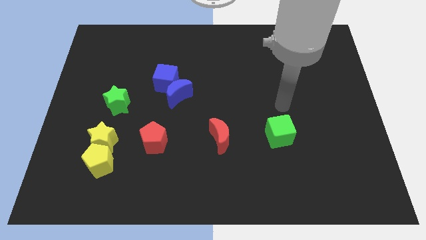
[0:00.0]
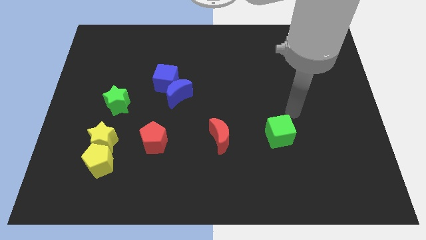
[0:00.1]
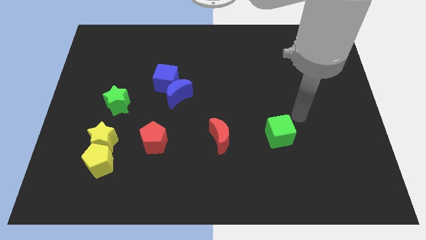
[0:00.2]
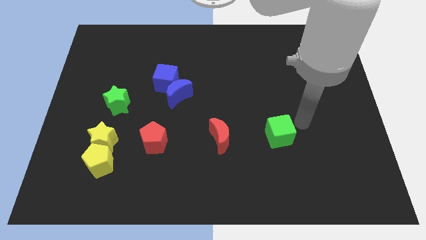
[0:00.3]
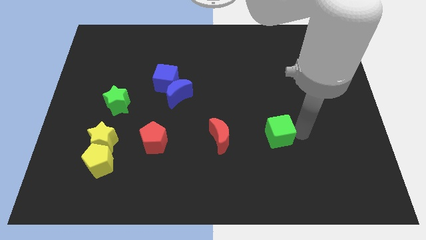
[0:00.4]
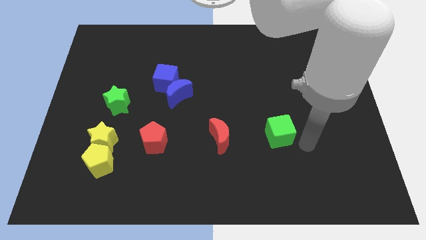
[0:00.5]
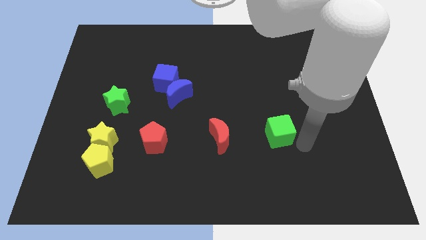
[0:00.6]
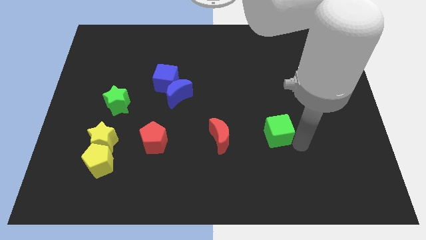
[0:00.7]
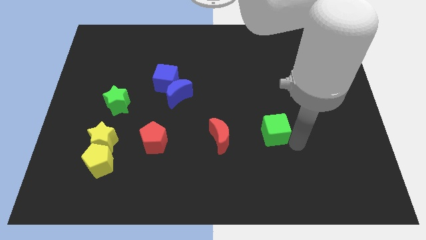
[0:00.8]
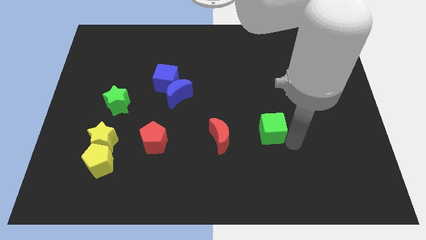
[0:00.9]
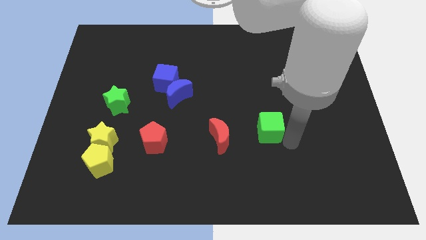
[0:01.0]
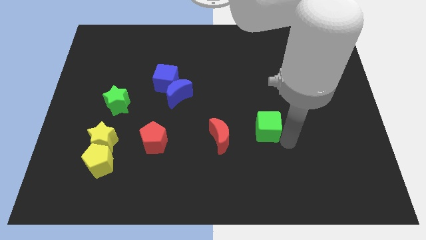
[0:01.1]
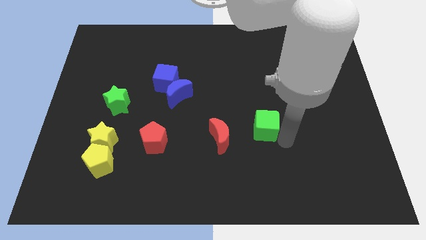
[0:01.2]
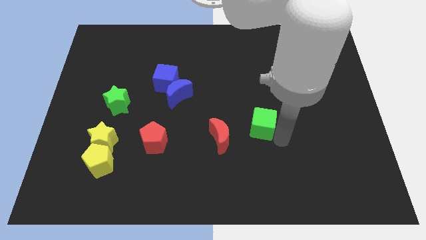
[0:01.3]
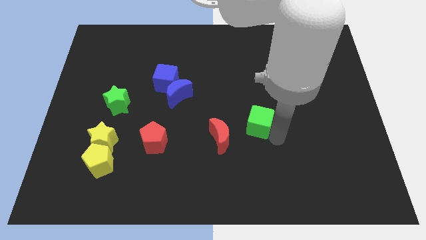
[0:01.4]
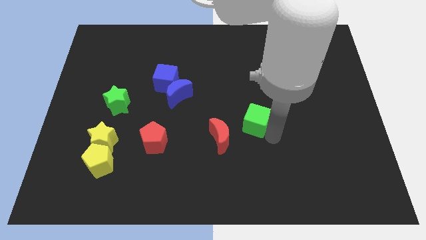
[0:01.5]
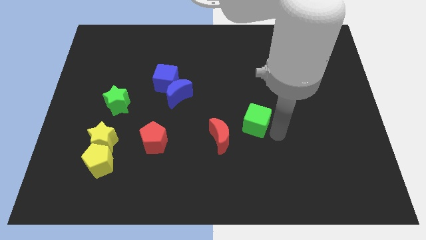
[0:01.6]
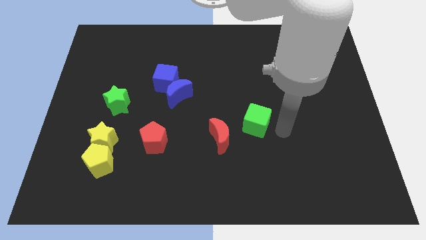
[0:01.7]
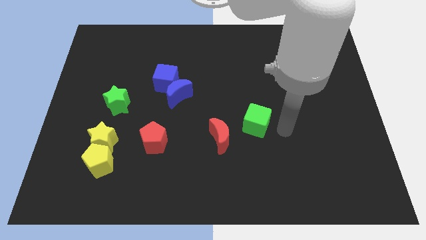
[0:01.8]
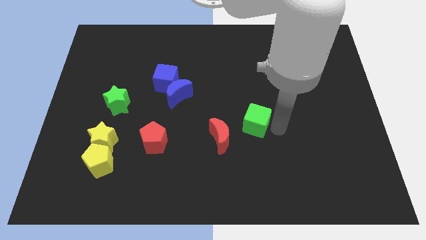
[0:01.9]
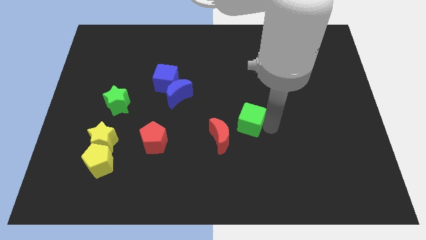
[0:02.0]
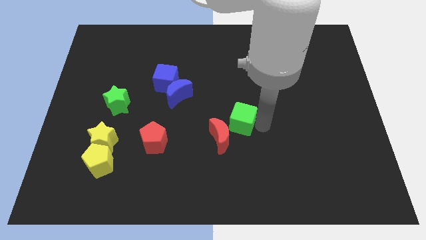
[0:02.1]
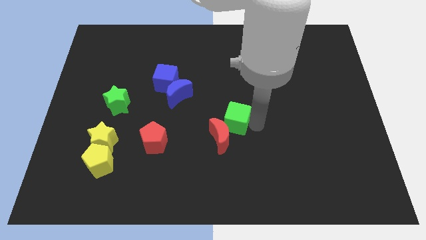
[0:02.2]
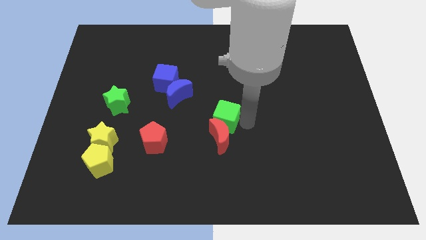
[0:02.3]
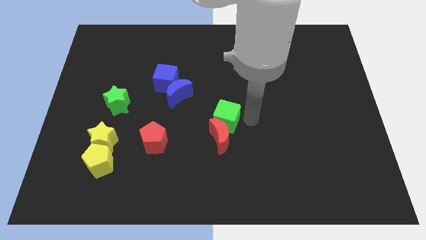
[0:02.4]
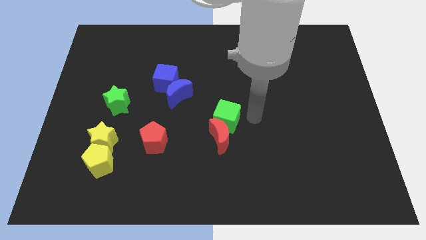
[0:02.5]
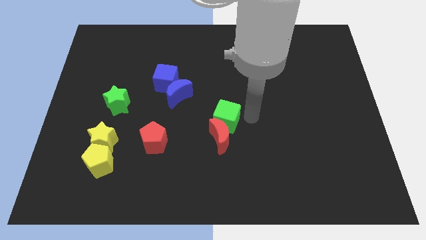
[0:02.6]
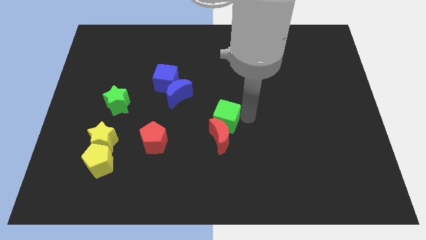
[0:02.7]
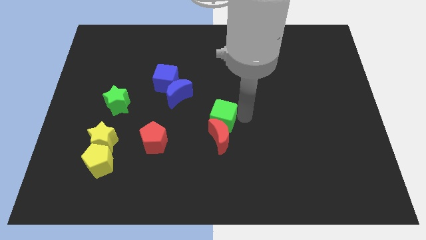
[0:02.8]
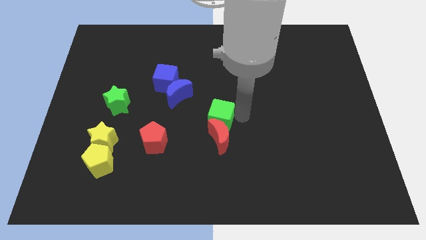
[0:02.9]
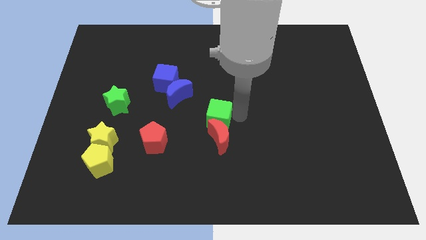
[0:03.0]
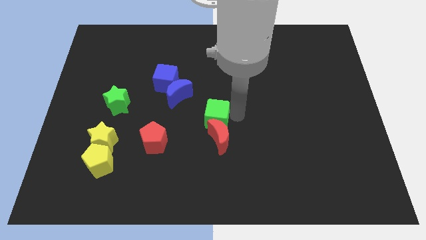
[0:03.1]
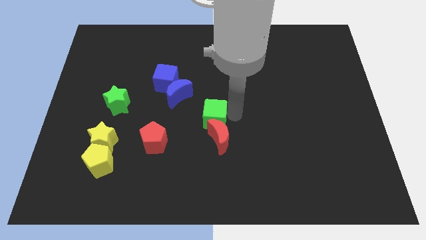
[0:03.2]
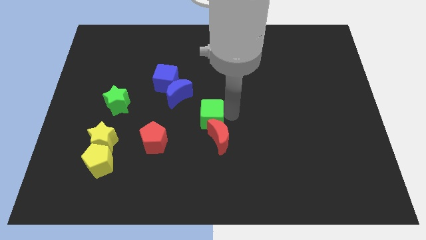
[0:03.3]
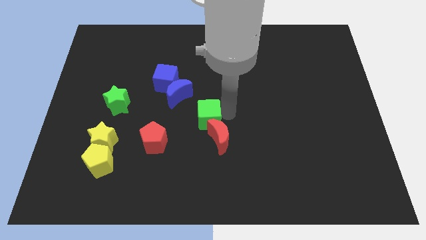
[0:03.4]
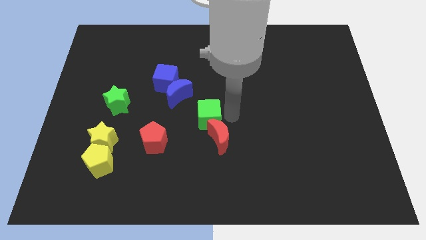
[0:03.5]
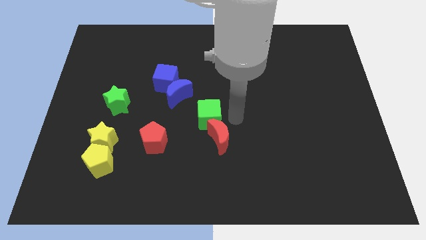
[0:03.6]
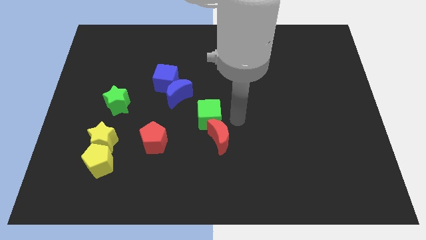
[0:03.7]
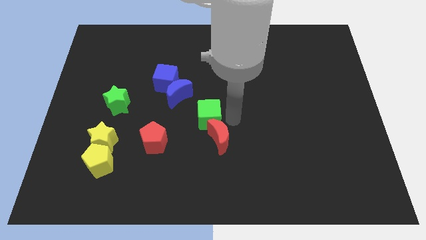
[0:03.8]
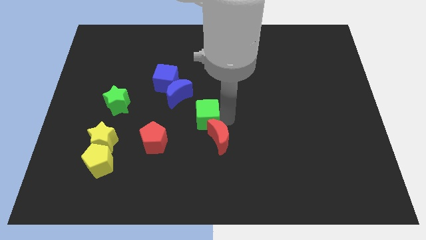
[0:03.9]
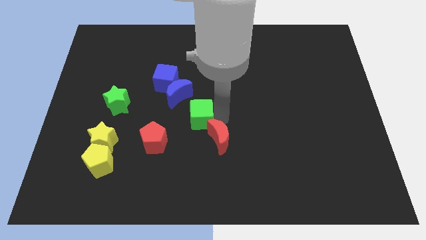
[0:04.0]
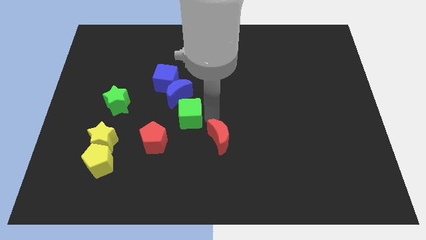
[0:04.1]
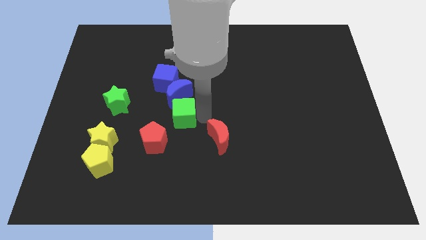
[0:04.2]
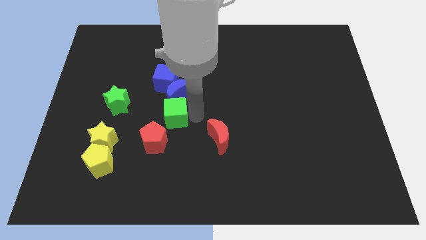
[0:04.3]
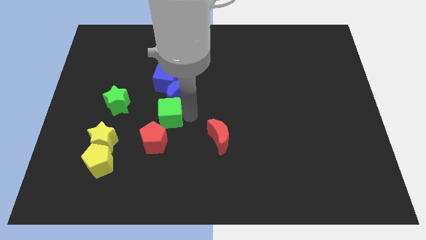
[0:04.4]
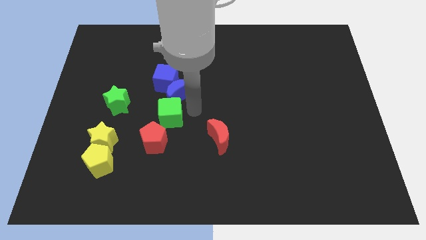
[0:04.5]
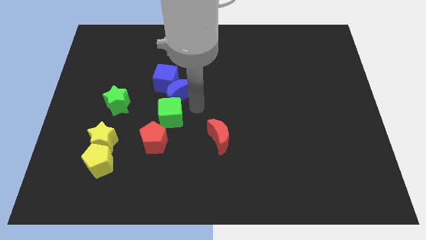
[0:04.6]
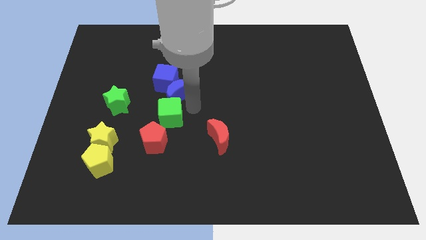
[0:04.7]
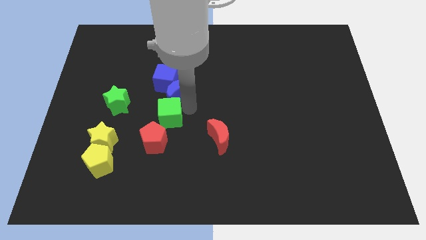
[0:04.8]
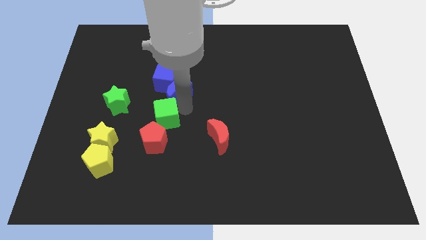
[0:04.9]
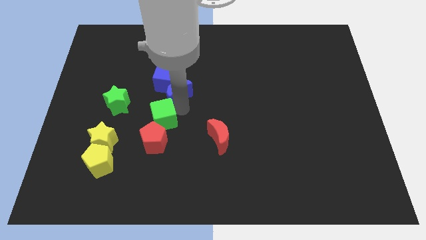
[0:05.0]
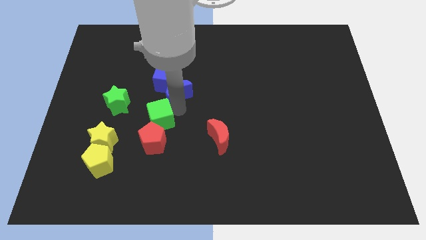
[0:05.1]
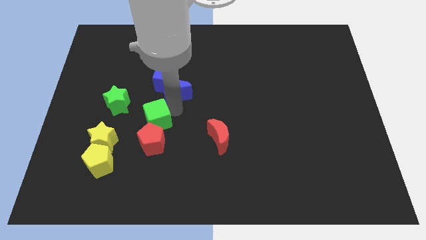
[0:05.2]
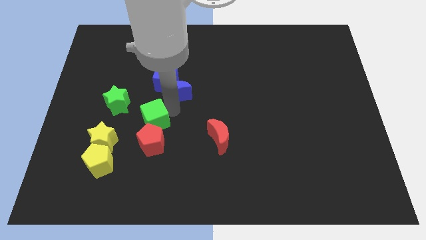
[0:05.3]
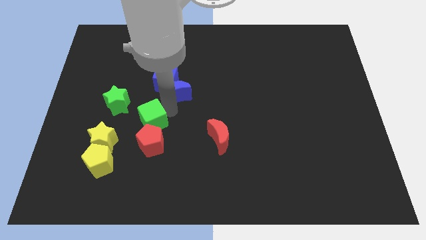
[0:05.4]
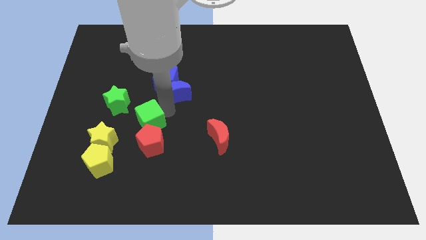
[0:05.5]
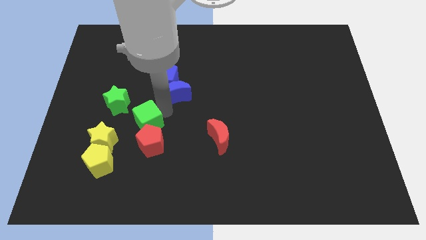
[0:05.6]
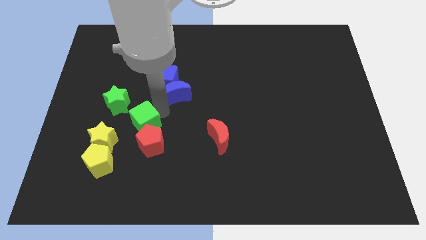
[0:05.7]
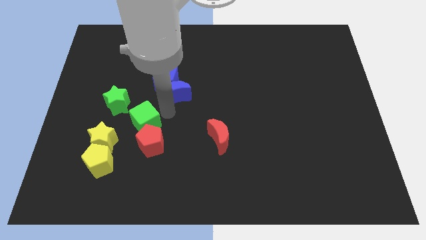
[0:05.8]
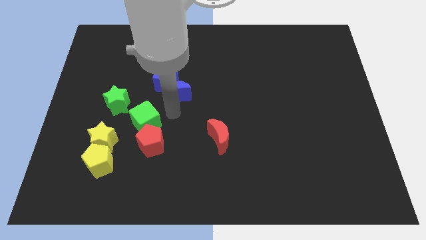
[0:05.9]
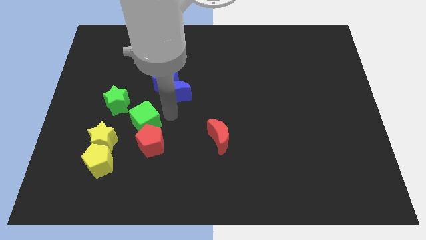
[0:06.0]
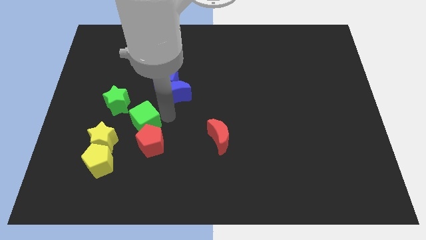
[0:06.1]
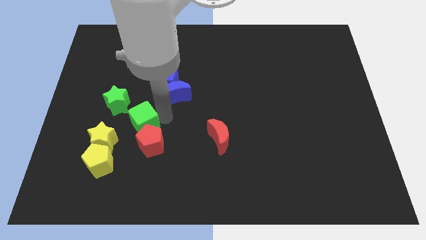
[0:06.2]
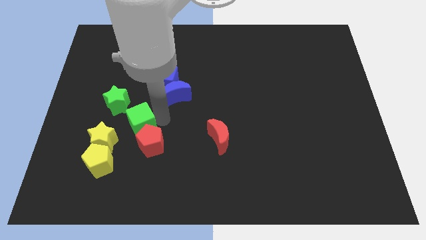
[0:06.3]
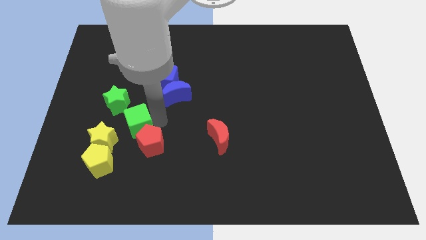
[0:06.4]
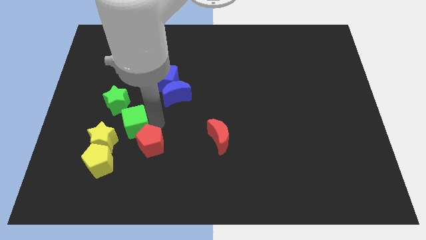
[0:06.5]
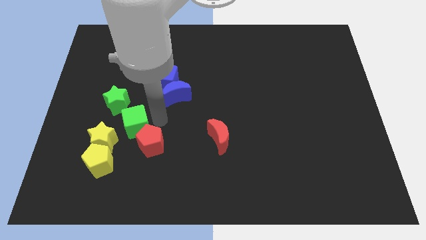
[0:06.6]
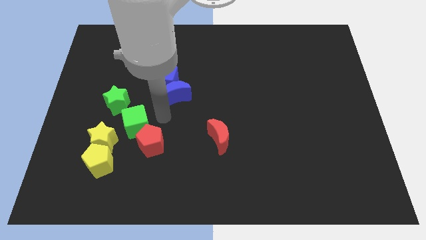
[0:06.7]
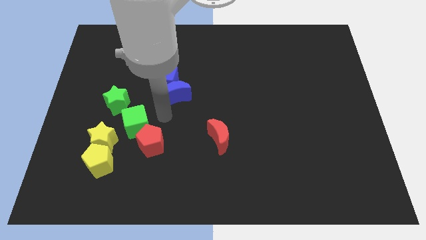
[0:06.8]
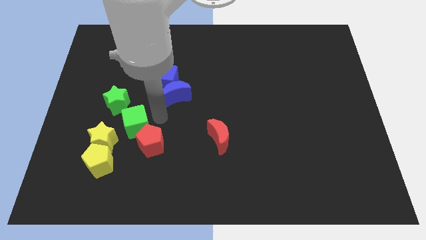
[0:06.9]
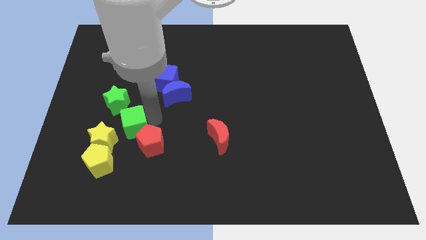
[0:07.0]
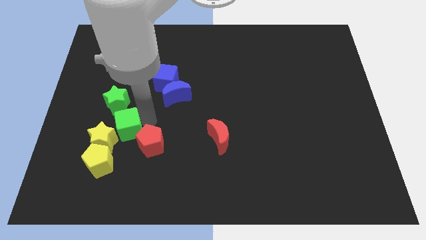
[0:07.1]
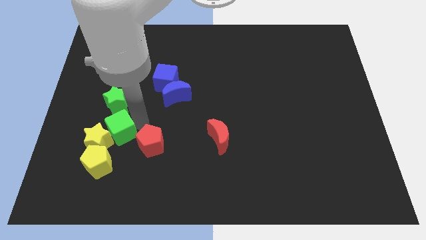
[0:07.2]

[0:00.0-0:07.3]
move the green cube close to the yellow star
